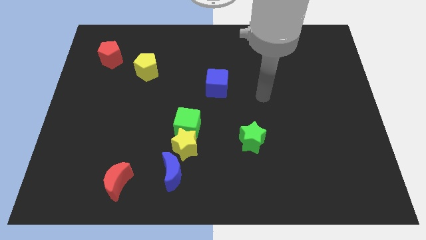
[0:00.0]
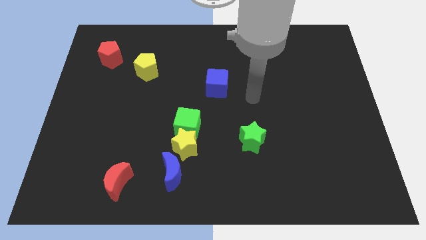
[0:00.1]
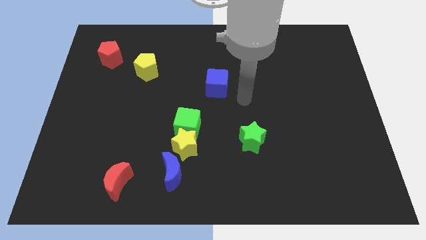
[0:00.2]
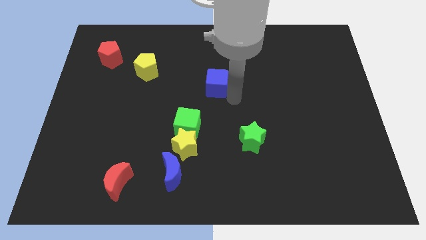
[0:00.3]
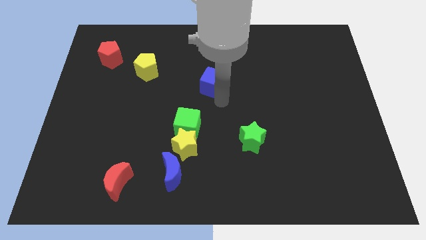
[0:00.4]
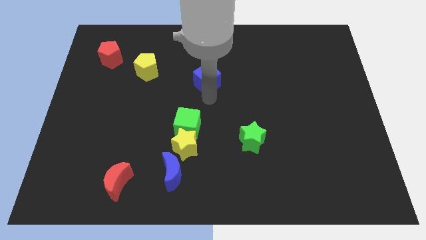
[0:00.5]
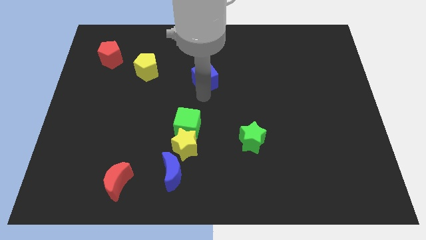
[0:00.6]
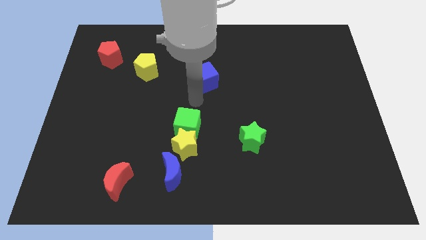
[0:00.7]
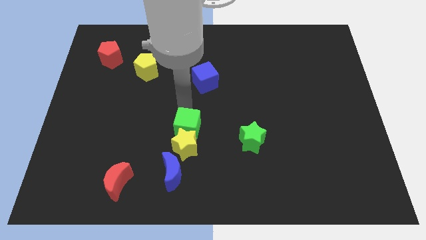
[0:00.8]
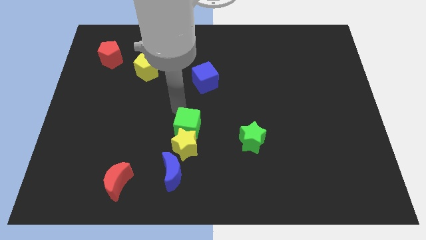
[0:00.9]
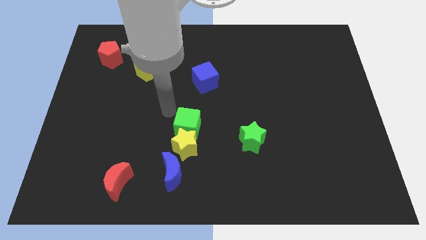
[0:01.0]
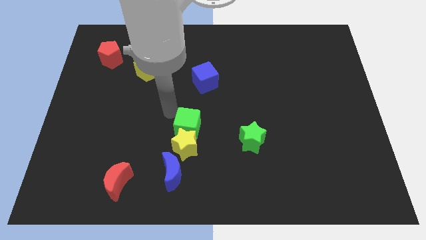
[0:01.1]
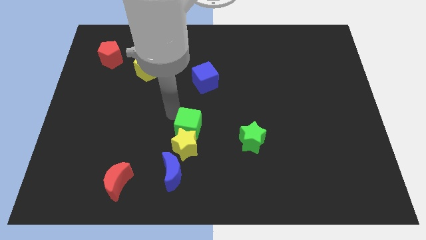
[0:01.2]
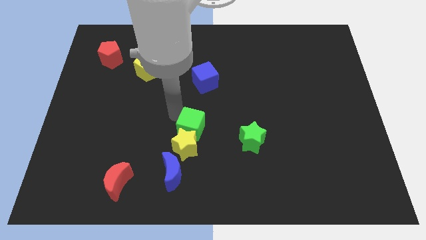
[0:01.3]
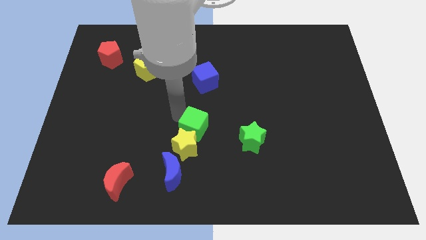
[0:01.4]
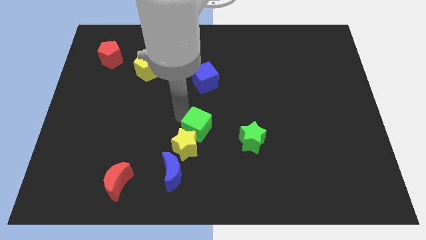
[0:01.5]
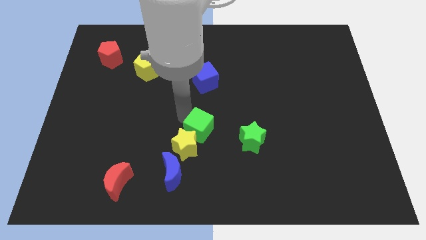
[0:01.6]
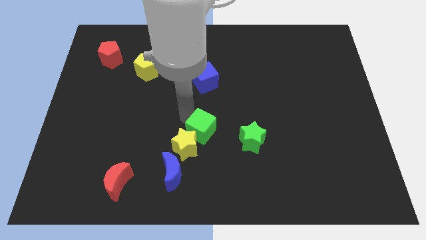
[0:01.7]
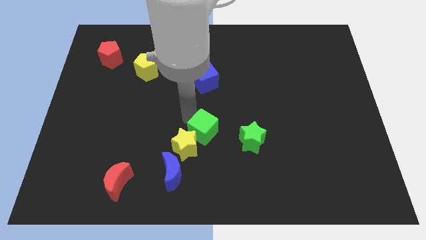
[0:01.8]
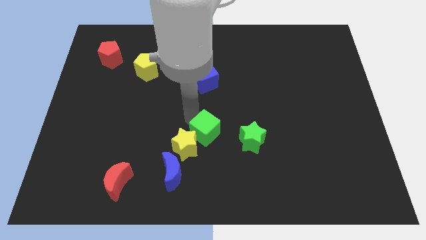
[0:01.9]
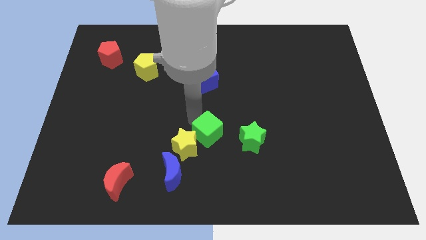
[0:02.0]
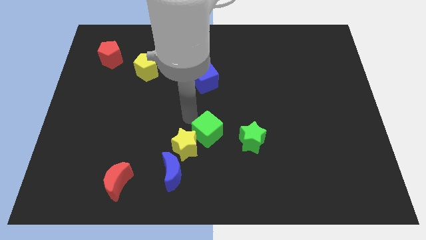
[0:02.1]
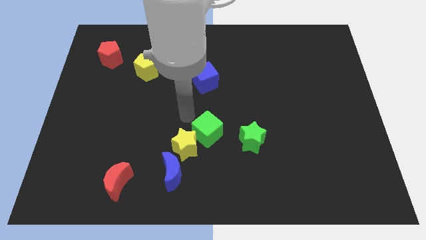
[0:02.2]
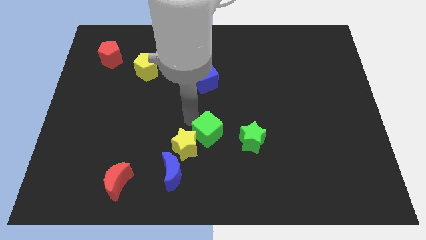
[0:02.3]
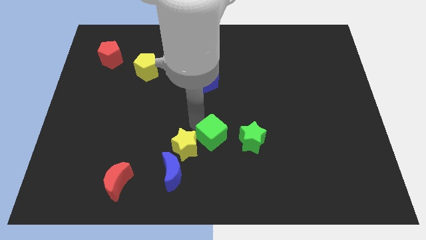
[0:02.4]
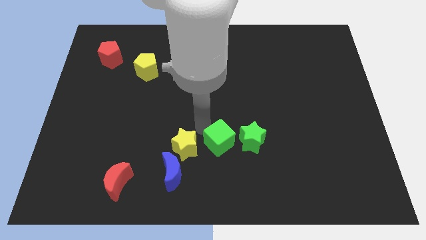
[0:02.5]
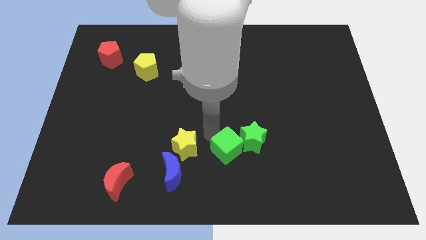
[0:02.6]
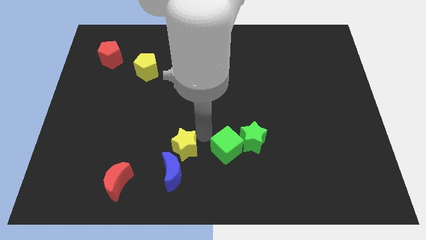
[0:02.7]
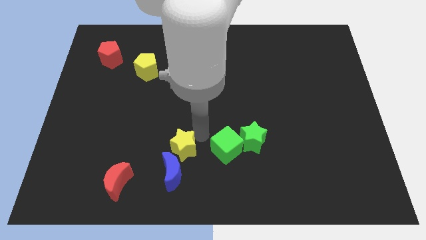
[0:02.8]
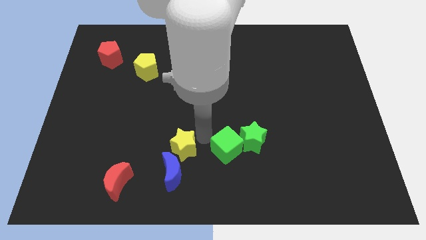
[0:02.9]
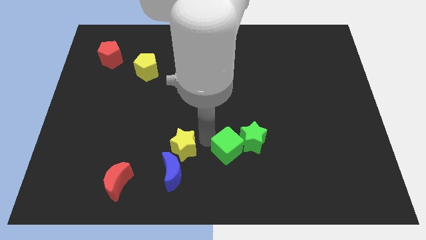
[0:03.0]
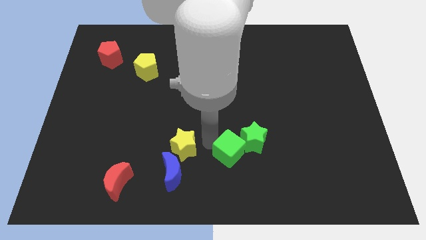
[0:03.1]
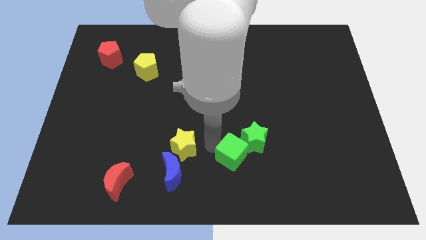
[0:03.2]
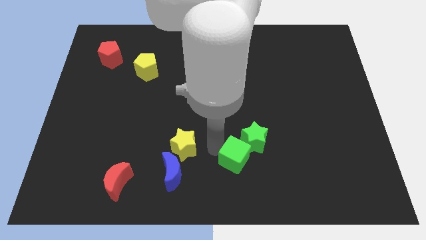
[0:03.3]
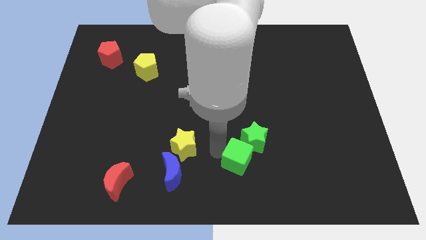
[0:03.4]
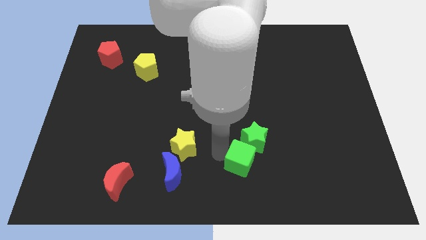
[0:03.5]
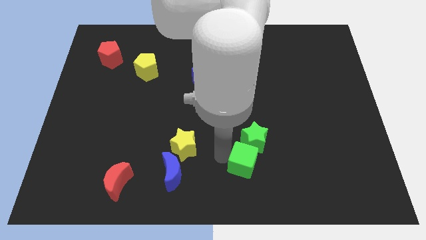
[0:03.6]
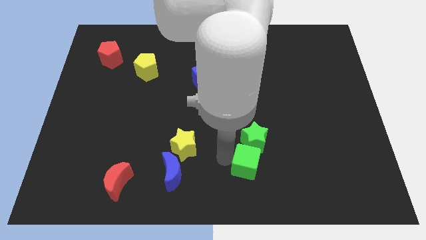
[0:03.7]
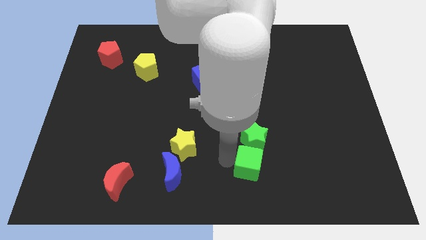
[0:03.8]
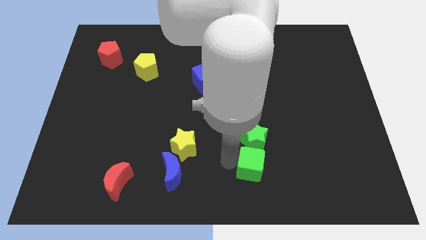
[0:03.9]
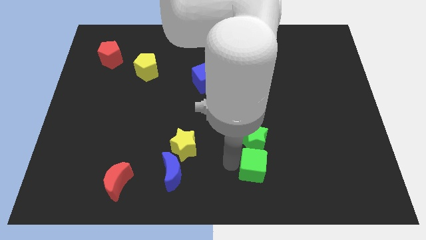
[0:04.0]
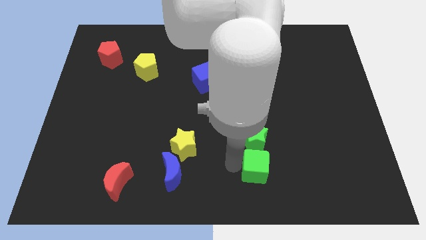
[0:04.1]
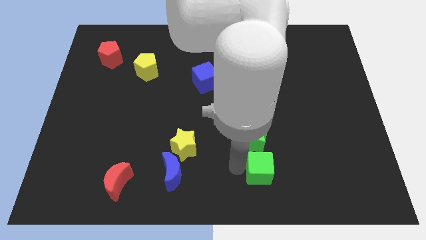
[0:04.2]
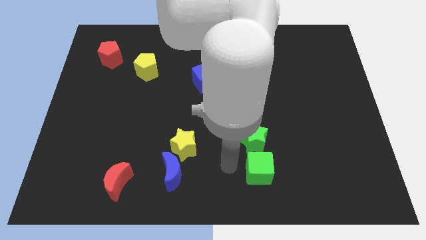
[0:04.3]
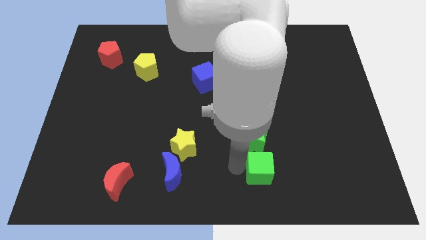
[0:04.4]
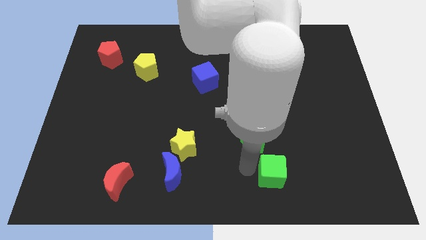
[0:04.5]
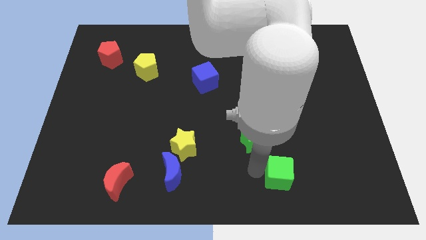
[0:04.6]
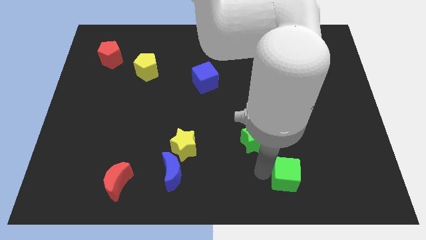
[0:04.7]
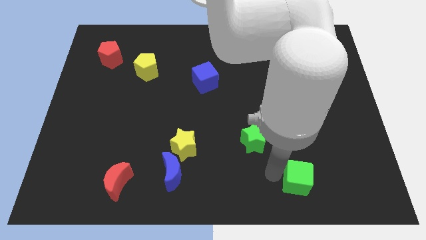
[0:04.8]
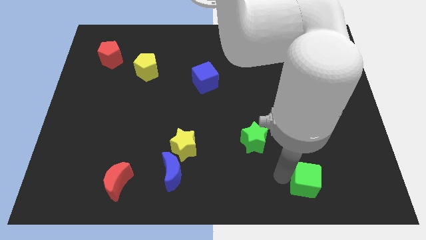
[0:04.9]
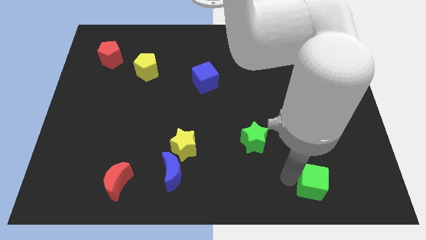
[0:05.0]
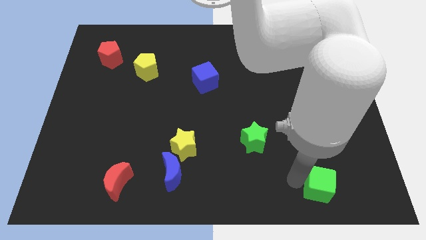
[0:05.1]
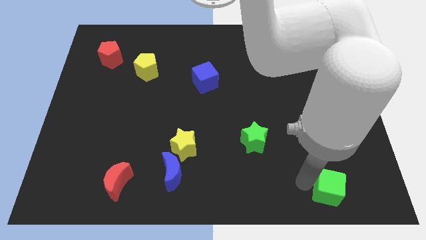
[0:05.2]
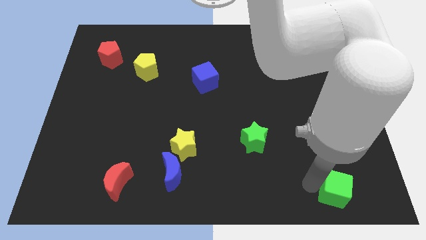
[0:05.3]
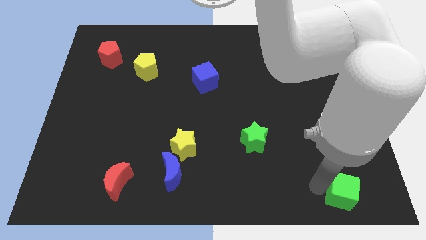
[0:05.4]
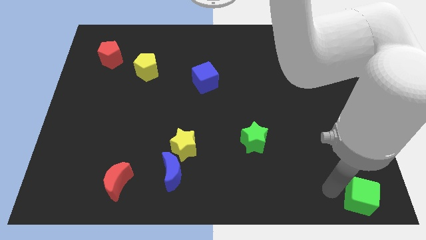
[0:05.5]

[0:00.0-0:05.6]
move the green cube to the bottom right corner

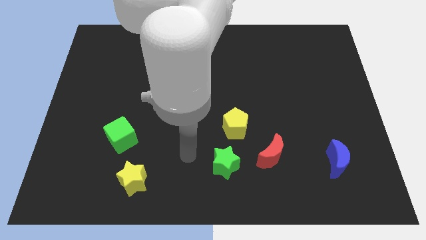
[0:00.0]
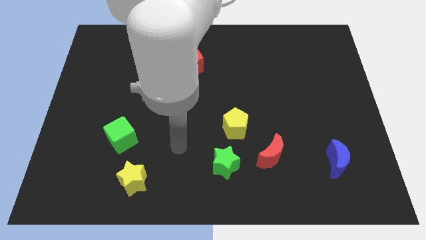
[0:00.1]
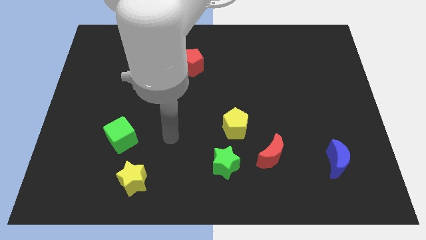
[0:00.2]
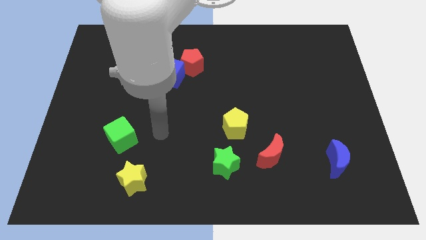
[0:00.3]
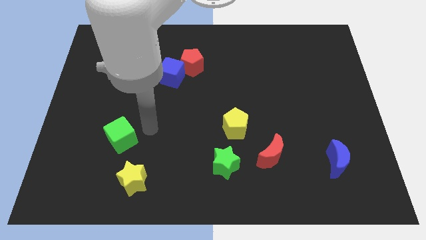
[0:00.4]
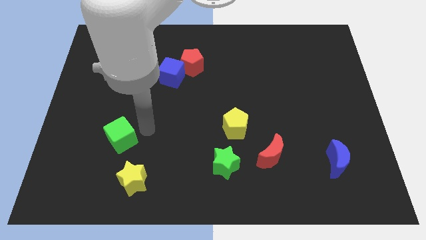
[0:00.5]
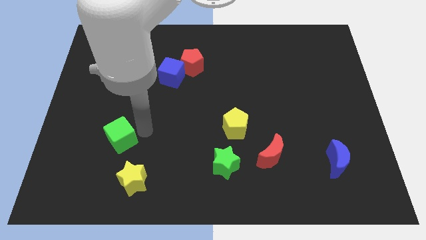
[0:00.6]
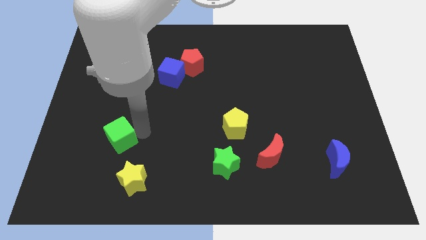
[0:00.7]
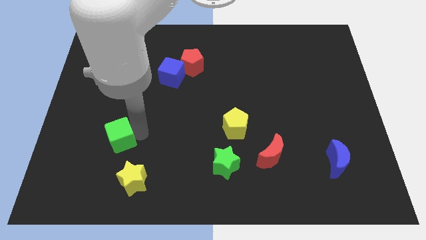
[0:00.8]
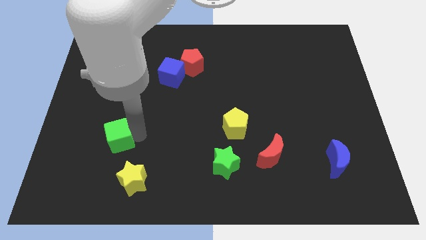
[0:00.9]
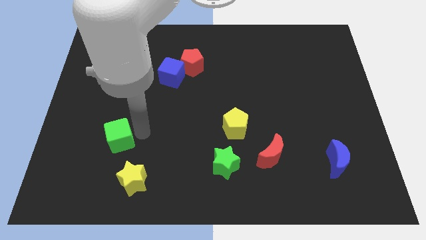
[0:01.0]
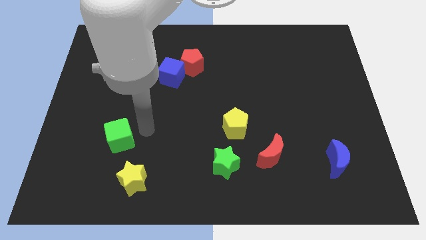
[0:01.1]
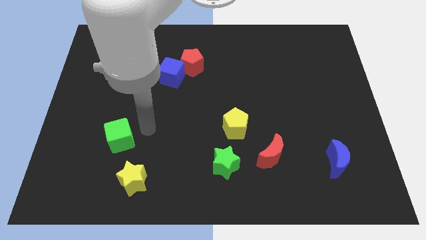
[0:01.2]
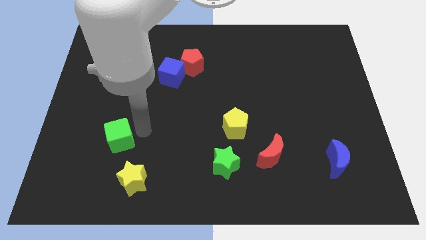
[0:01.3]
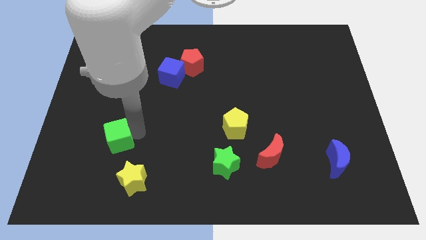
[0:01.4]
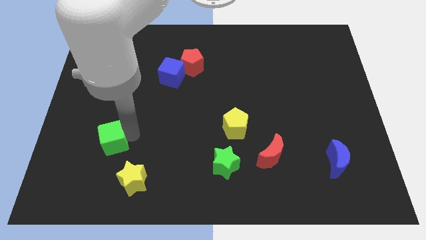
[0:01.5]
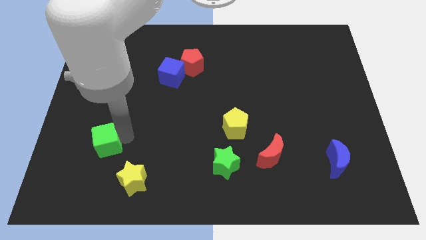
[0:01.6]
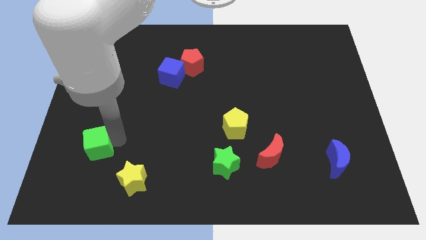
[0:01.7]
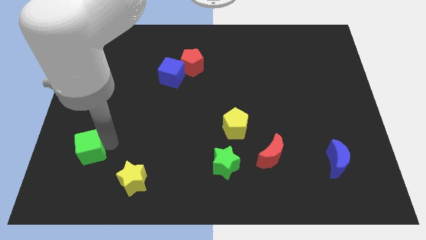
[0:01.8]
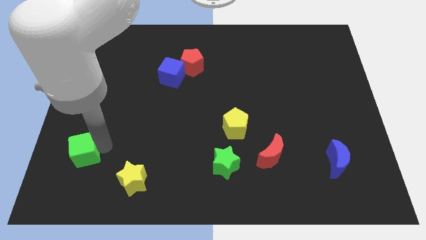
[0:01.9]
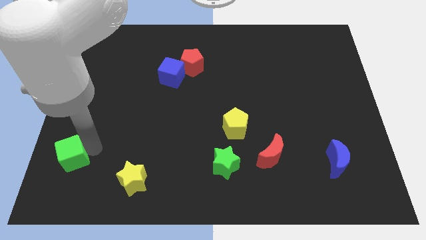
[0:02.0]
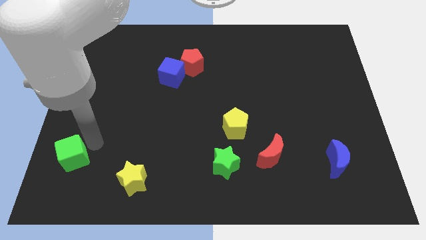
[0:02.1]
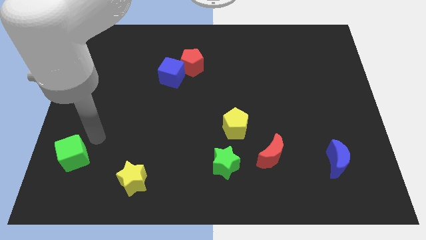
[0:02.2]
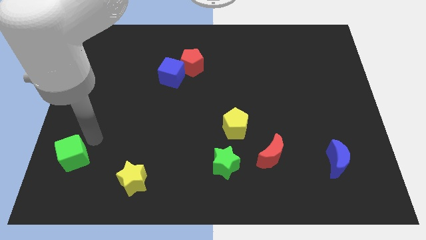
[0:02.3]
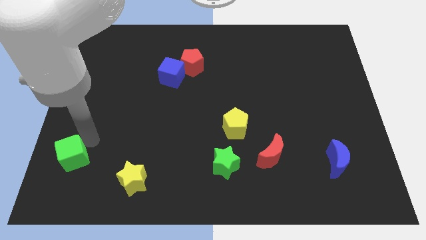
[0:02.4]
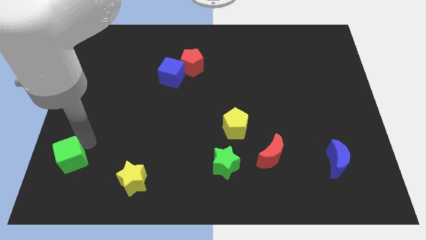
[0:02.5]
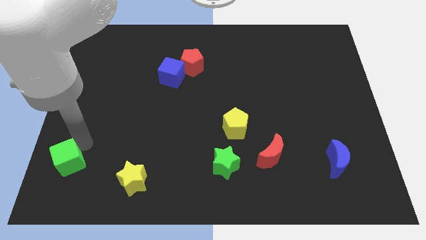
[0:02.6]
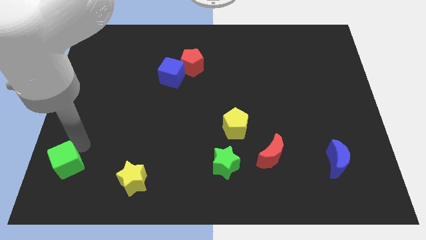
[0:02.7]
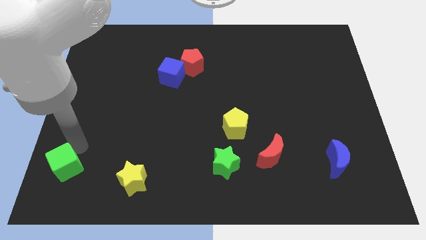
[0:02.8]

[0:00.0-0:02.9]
slide the green cube to the lower left corner
